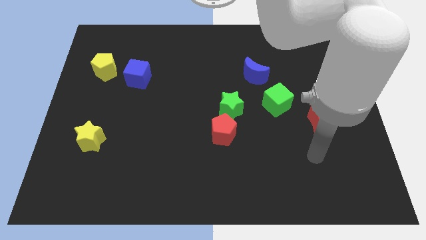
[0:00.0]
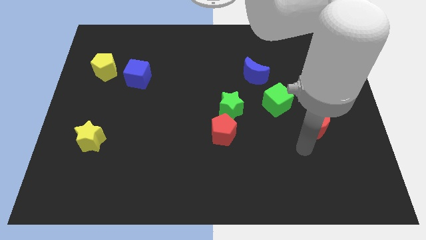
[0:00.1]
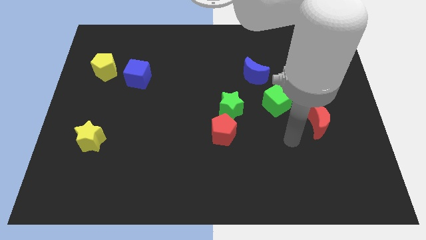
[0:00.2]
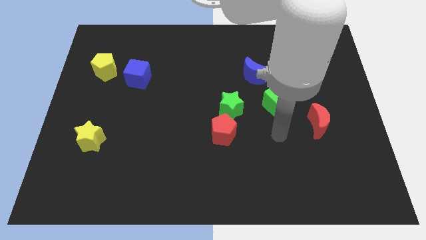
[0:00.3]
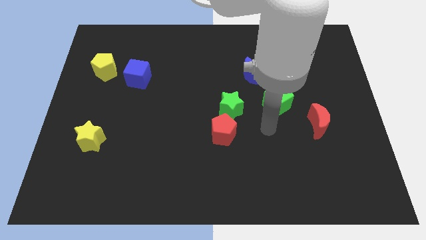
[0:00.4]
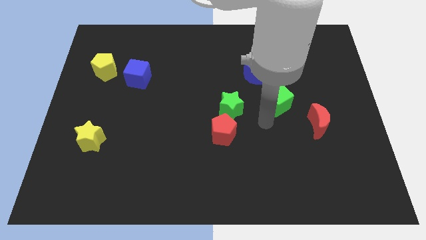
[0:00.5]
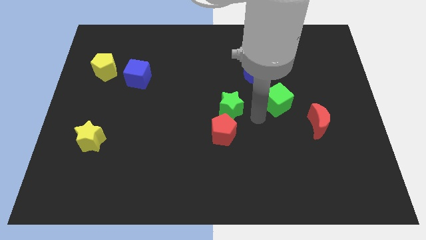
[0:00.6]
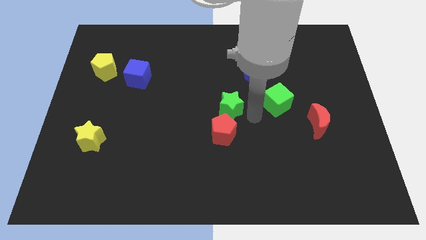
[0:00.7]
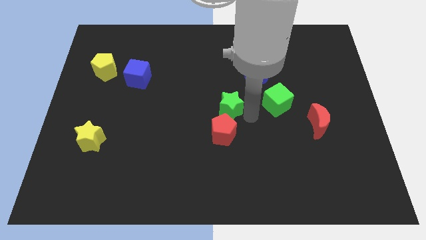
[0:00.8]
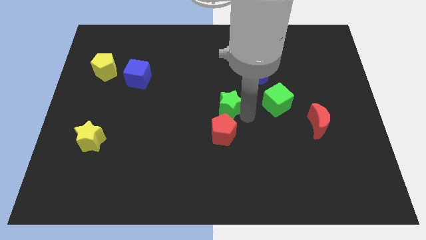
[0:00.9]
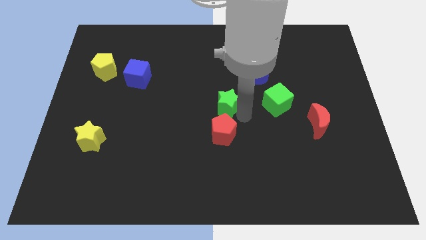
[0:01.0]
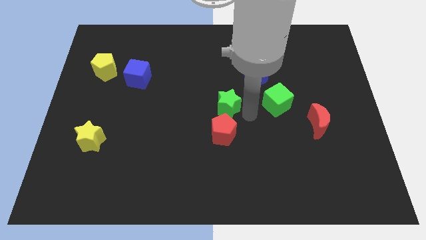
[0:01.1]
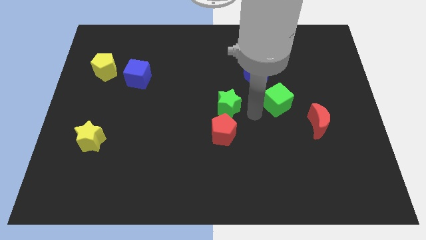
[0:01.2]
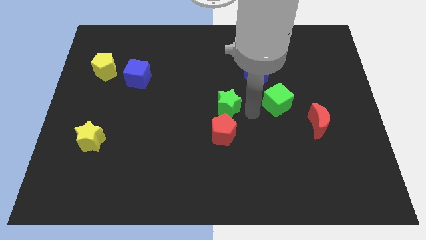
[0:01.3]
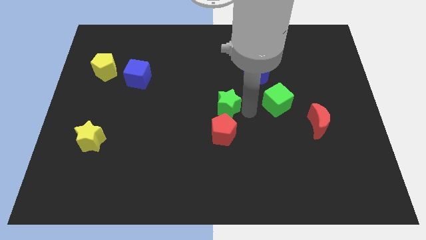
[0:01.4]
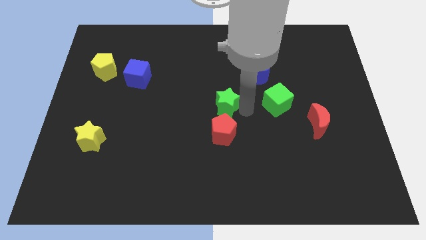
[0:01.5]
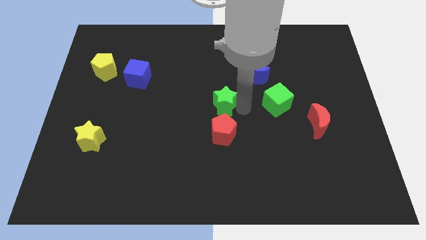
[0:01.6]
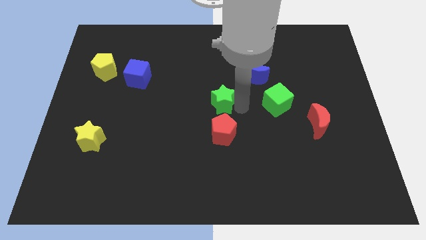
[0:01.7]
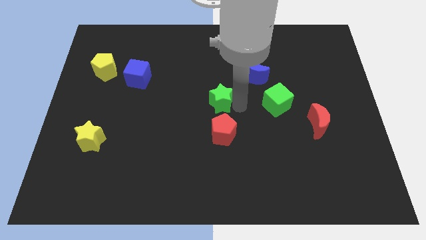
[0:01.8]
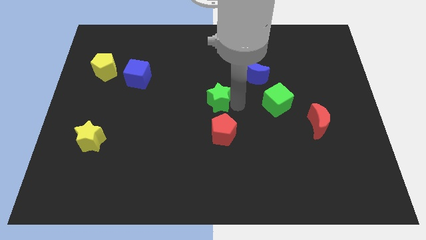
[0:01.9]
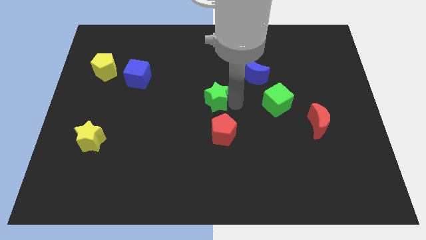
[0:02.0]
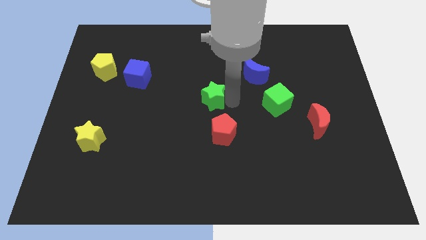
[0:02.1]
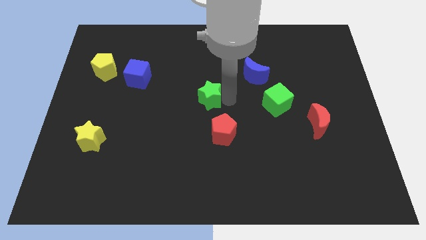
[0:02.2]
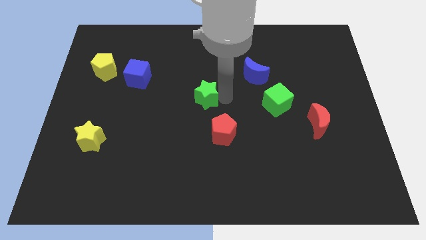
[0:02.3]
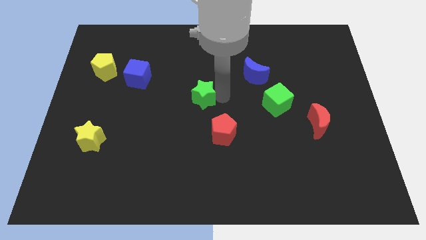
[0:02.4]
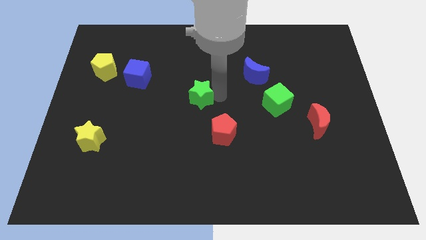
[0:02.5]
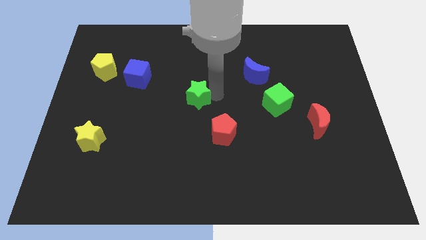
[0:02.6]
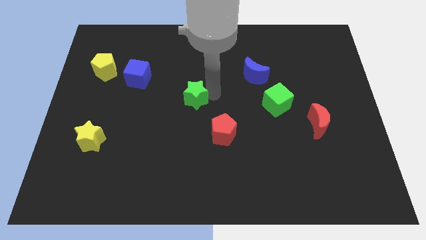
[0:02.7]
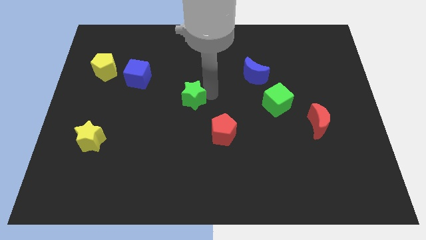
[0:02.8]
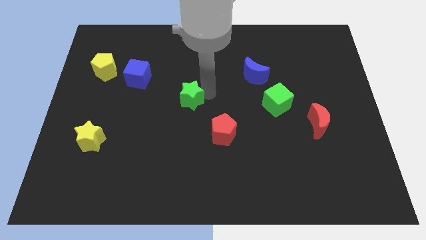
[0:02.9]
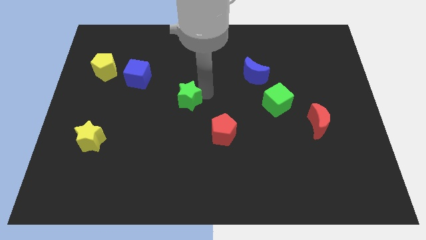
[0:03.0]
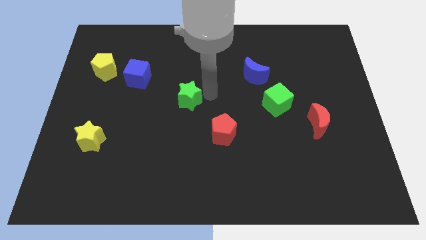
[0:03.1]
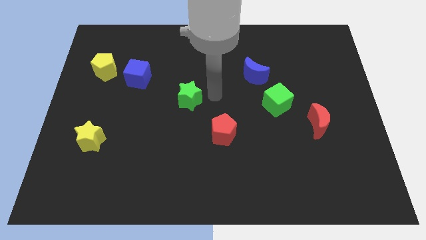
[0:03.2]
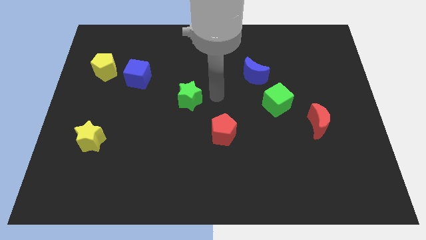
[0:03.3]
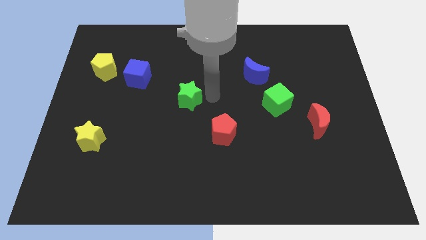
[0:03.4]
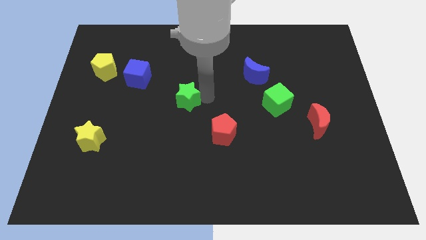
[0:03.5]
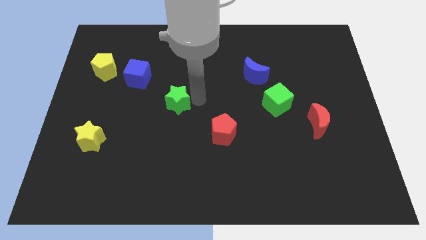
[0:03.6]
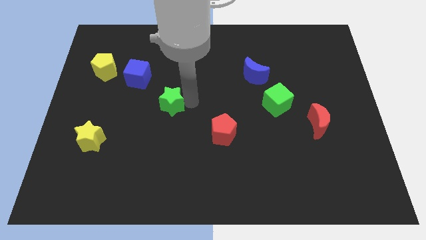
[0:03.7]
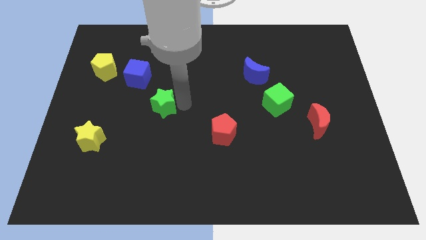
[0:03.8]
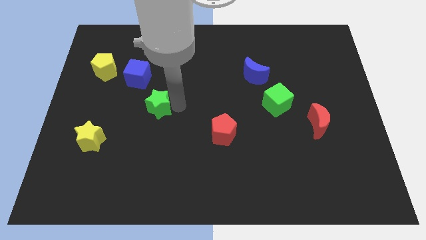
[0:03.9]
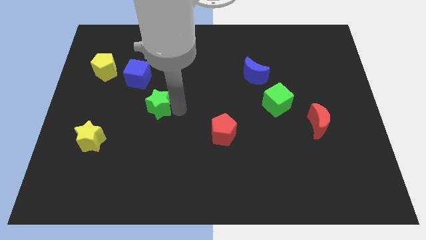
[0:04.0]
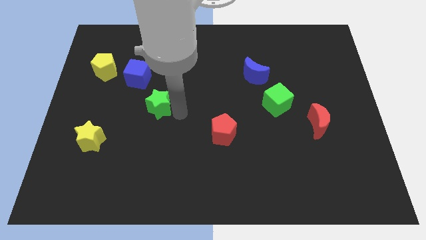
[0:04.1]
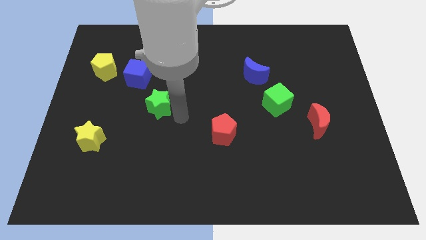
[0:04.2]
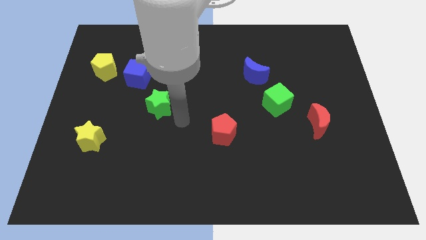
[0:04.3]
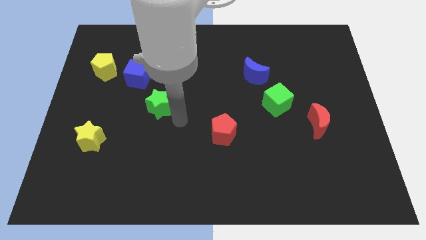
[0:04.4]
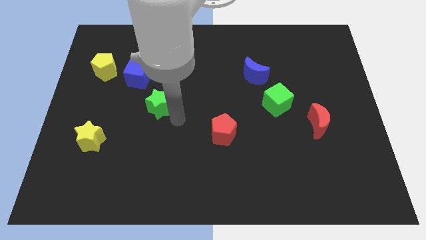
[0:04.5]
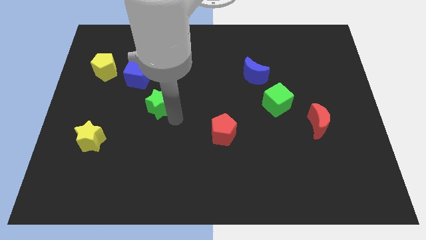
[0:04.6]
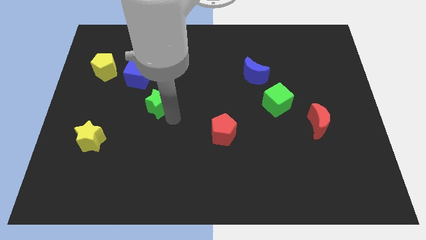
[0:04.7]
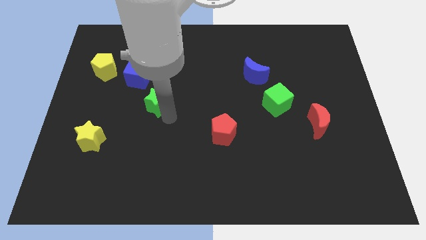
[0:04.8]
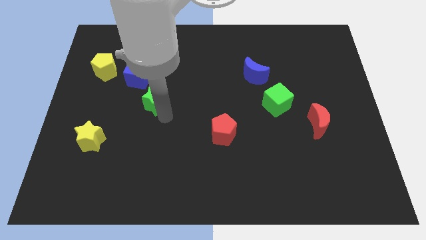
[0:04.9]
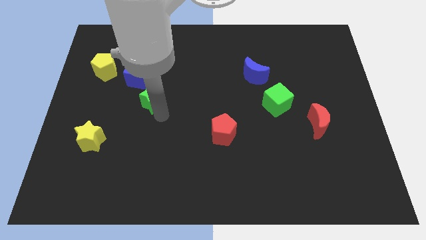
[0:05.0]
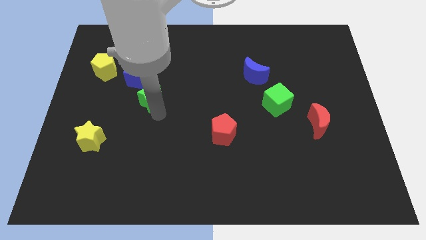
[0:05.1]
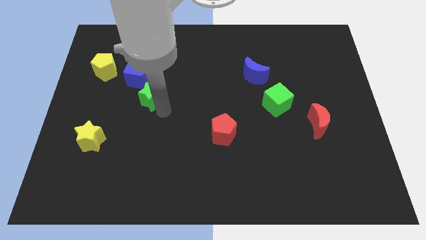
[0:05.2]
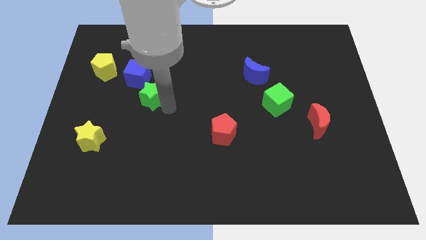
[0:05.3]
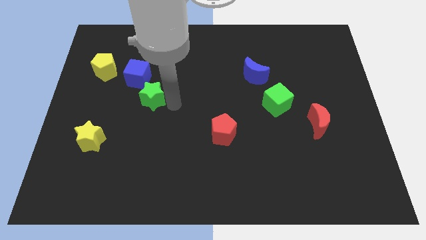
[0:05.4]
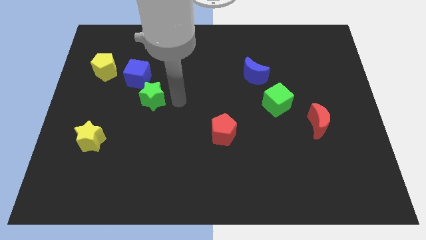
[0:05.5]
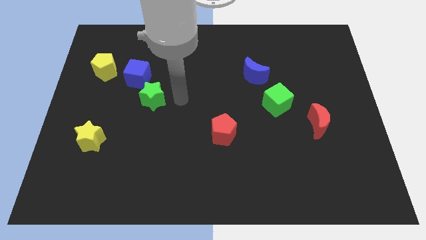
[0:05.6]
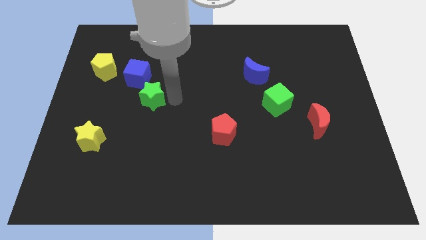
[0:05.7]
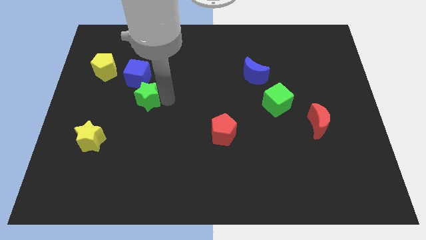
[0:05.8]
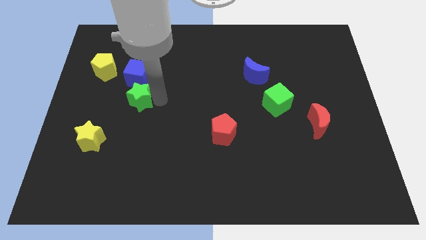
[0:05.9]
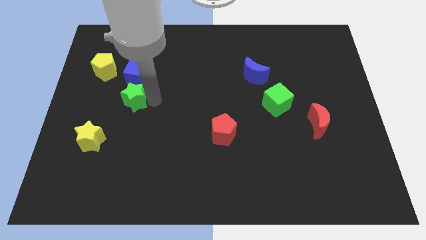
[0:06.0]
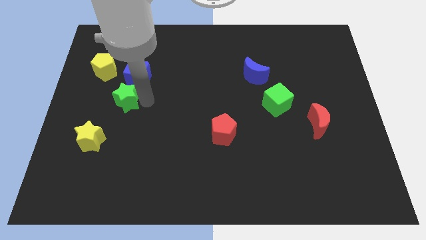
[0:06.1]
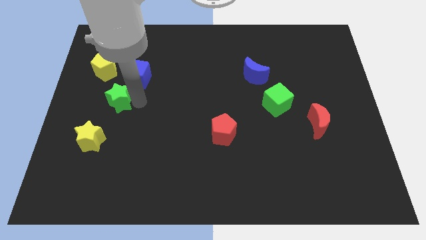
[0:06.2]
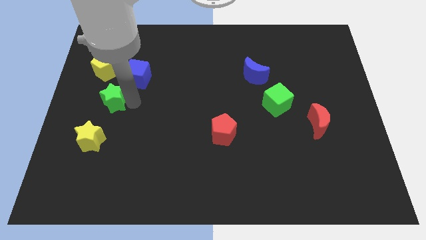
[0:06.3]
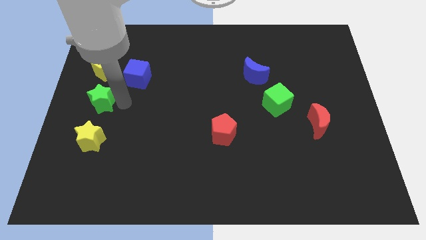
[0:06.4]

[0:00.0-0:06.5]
slide the green star to the left side

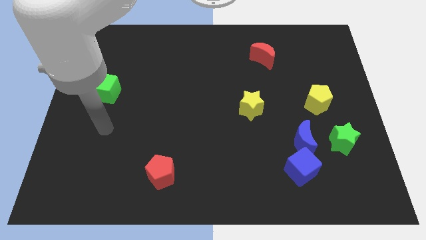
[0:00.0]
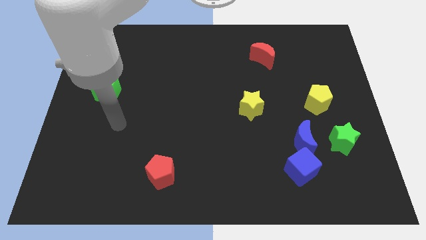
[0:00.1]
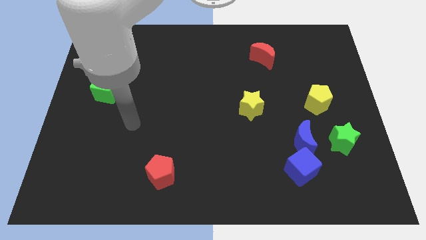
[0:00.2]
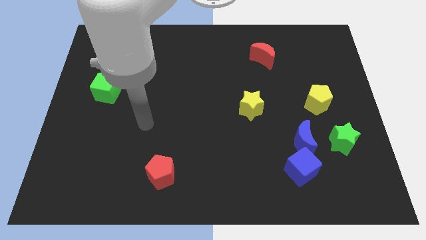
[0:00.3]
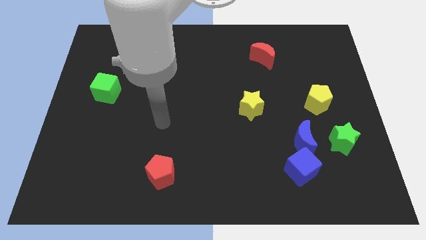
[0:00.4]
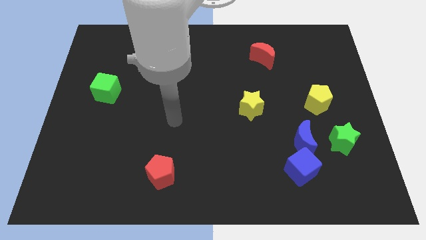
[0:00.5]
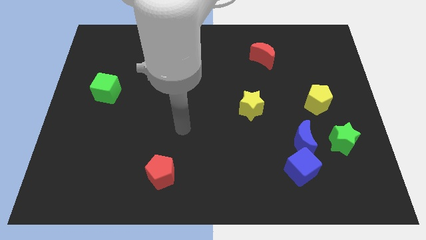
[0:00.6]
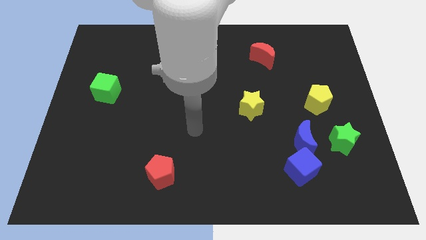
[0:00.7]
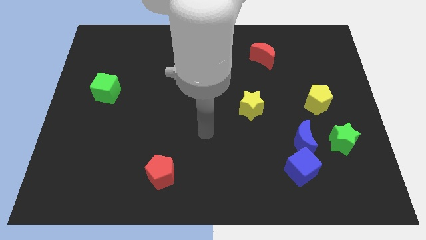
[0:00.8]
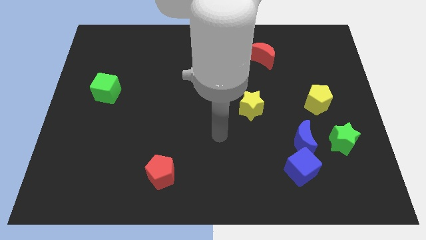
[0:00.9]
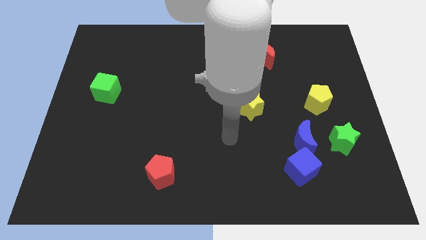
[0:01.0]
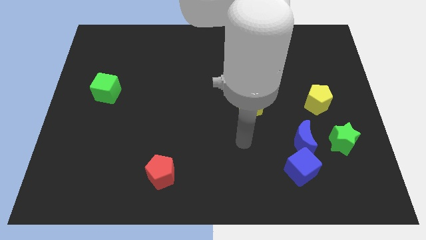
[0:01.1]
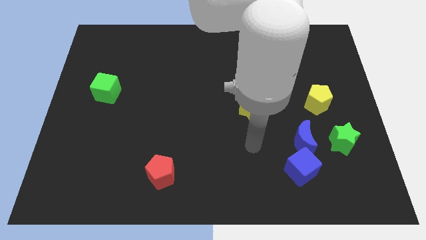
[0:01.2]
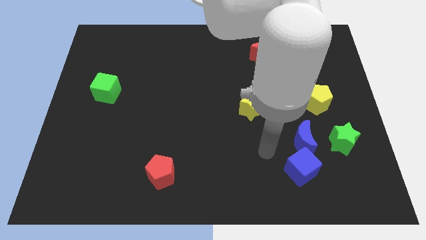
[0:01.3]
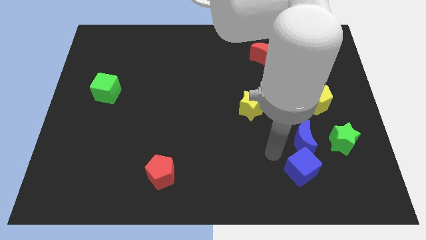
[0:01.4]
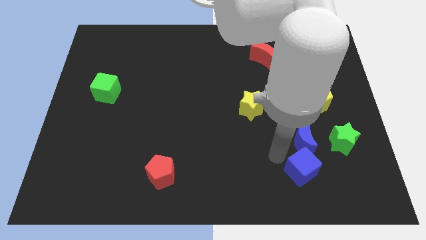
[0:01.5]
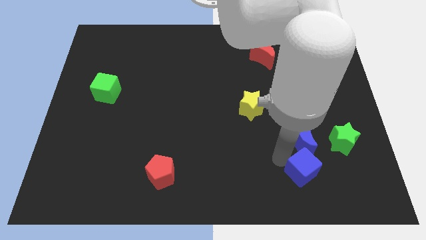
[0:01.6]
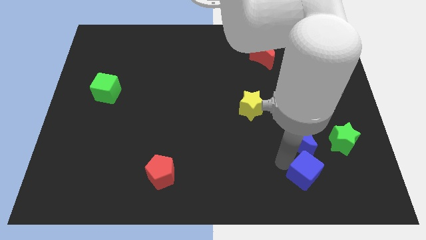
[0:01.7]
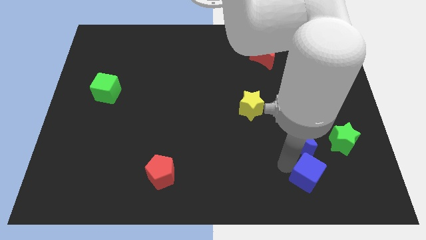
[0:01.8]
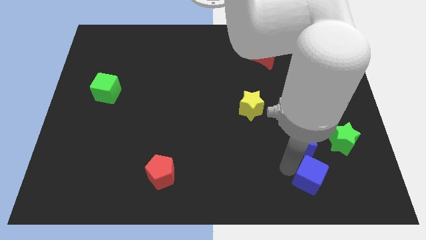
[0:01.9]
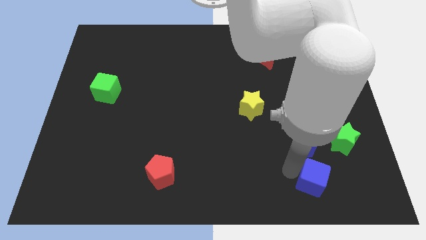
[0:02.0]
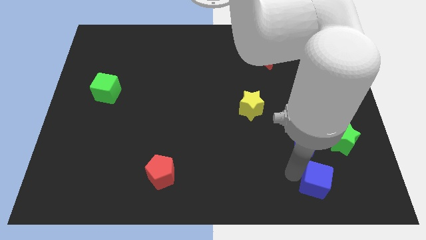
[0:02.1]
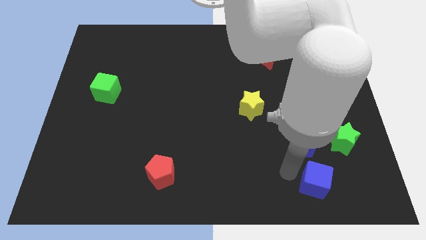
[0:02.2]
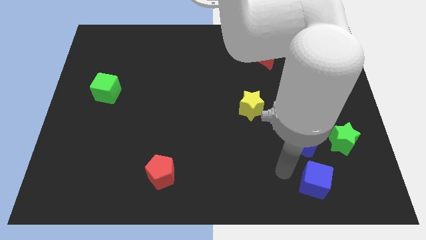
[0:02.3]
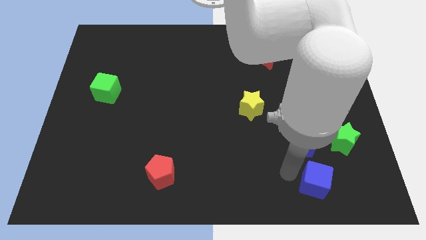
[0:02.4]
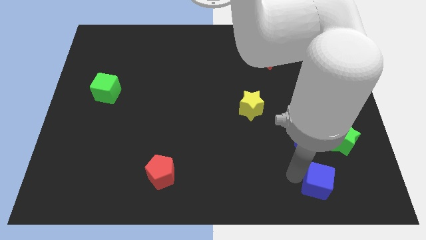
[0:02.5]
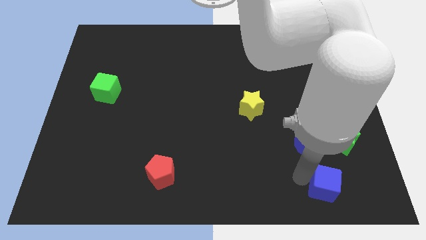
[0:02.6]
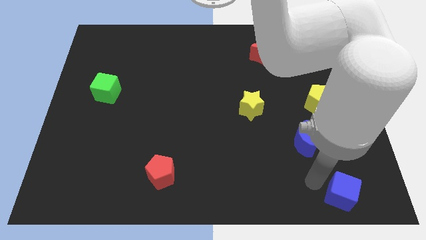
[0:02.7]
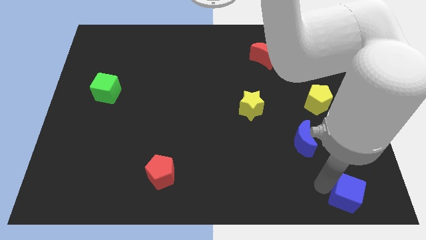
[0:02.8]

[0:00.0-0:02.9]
push the blue cube to the bottom right corner
